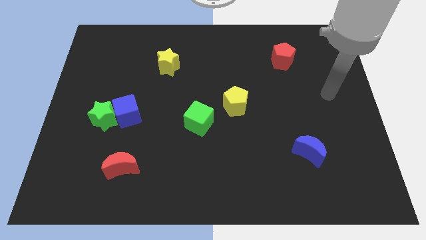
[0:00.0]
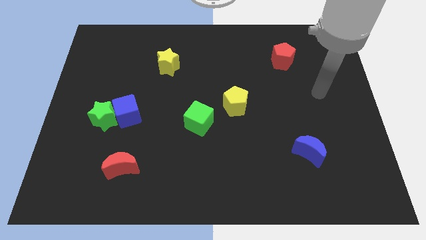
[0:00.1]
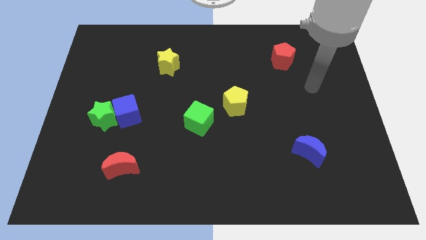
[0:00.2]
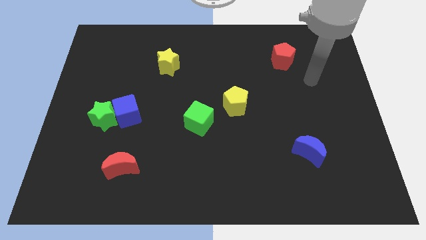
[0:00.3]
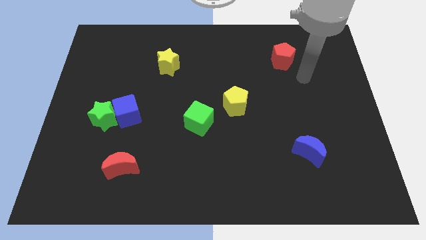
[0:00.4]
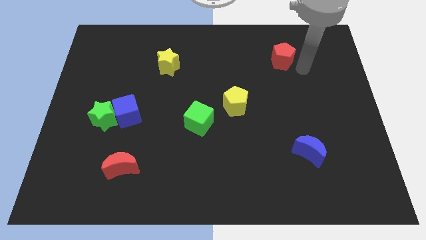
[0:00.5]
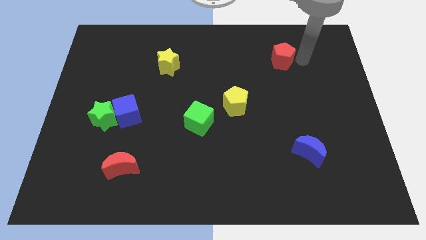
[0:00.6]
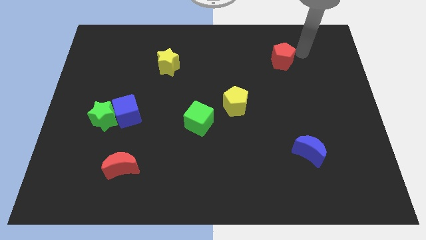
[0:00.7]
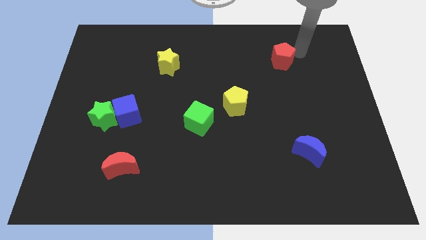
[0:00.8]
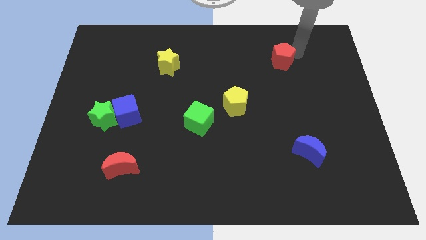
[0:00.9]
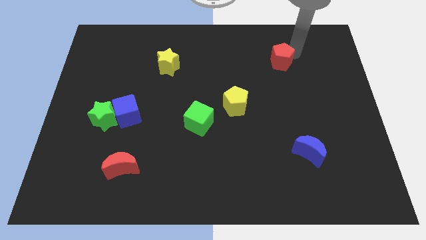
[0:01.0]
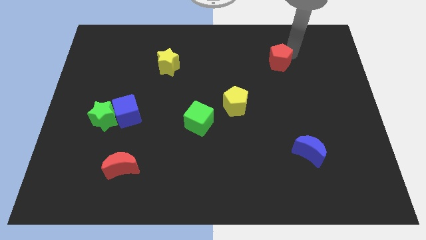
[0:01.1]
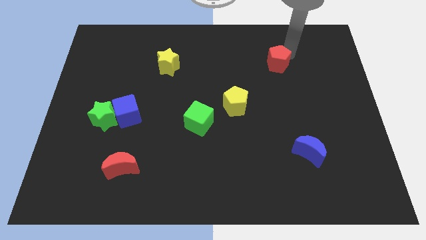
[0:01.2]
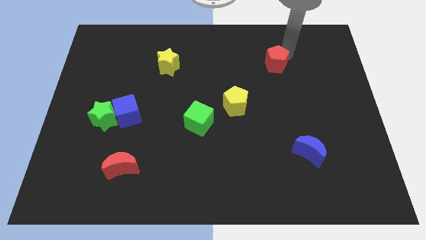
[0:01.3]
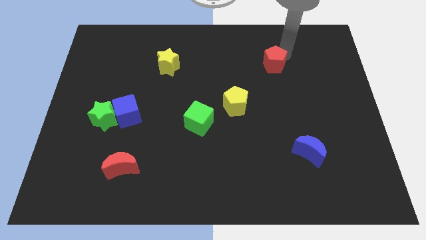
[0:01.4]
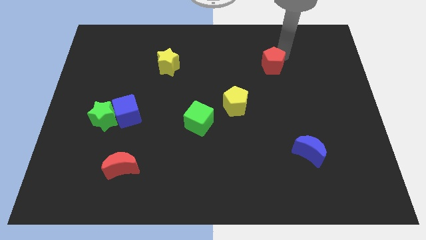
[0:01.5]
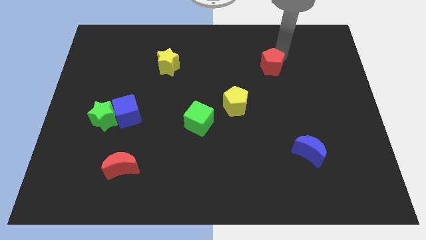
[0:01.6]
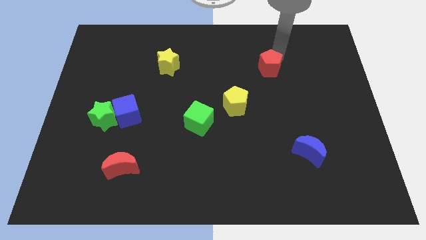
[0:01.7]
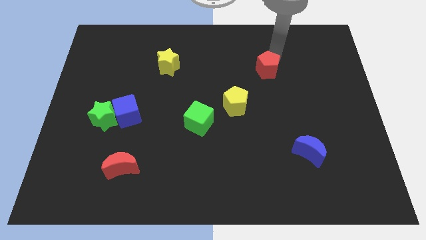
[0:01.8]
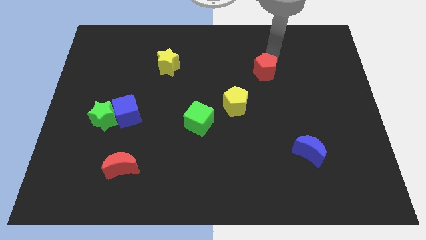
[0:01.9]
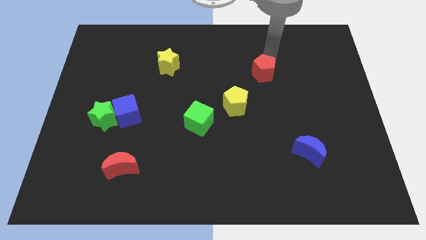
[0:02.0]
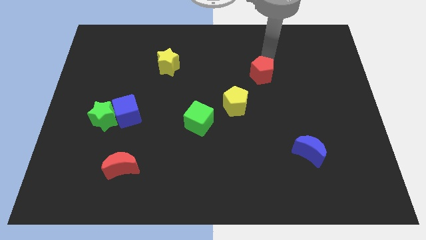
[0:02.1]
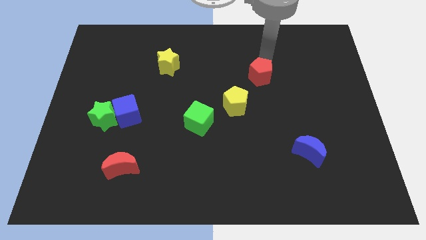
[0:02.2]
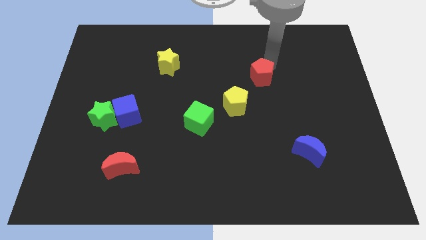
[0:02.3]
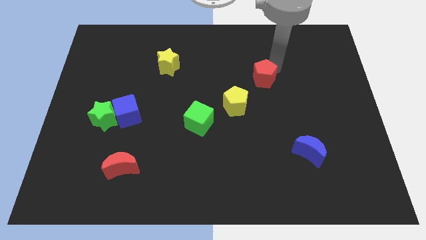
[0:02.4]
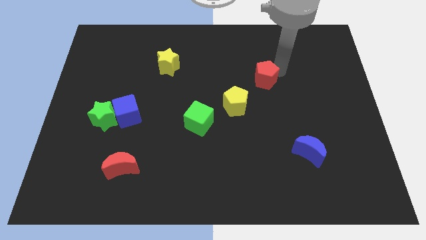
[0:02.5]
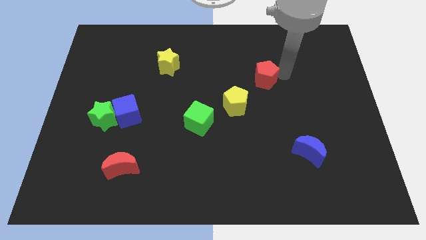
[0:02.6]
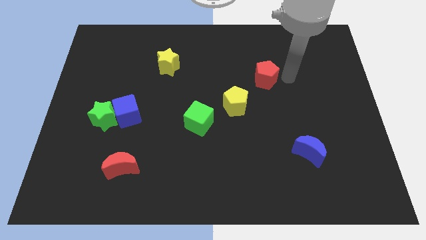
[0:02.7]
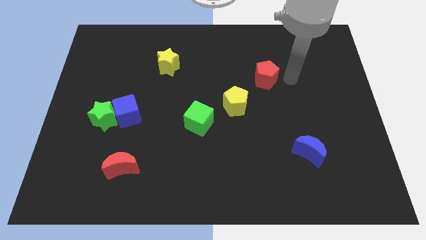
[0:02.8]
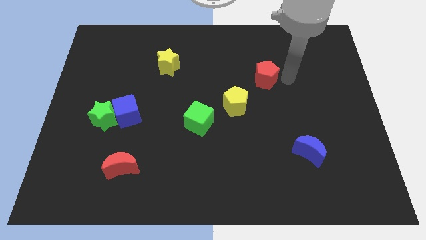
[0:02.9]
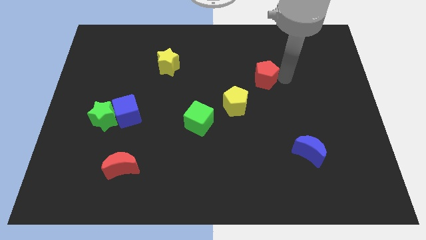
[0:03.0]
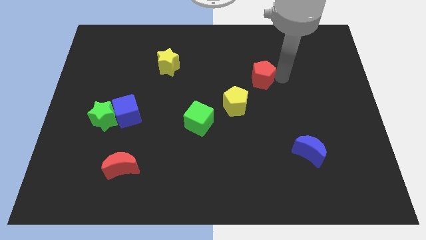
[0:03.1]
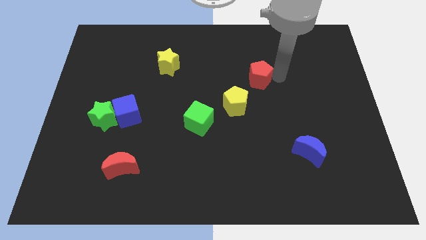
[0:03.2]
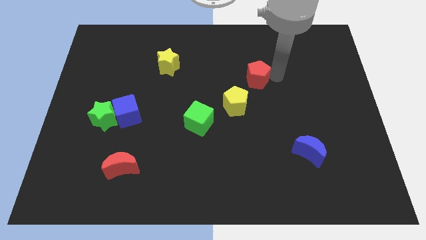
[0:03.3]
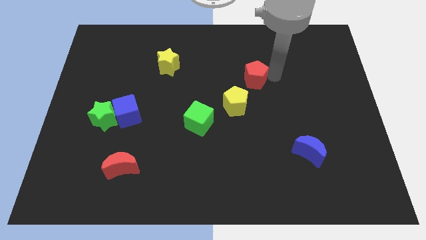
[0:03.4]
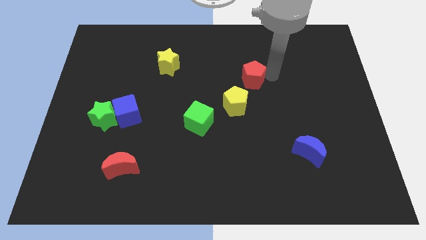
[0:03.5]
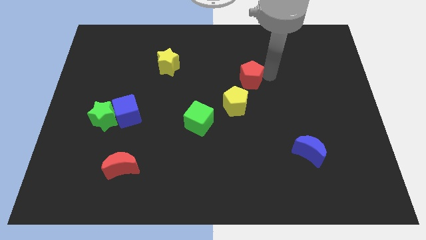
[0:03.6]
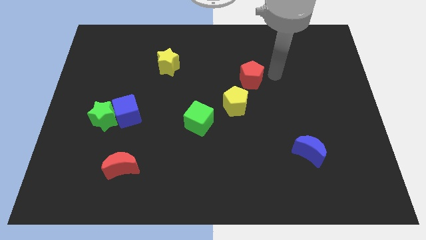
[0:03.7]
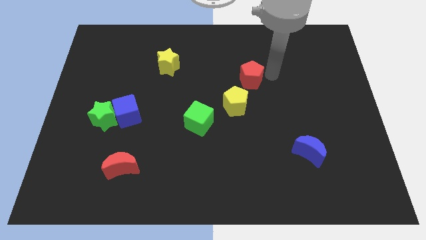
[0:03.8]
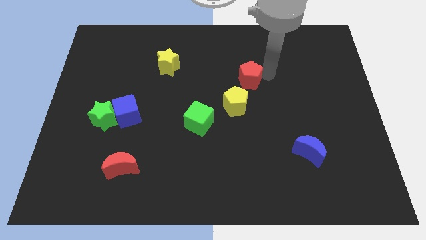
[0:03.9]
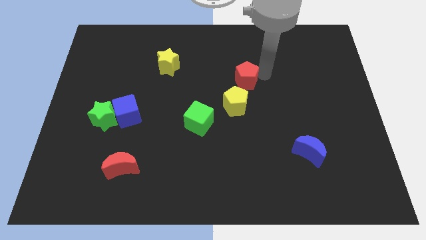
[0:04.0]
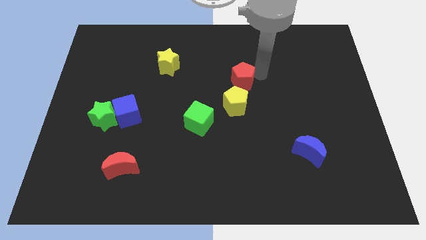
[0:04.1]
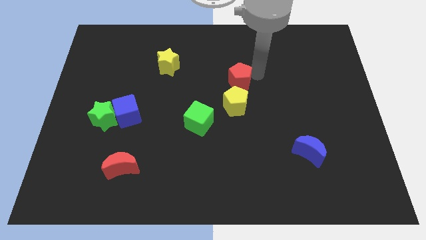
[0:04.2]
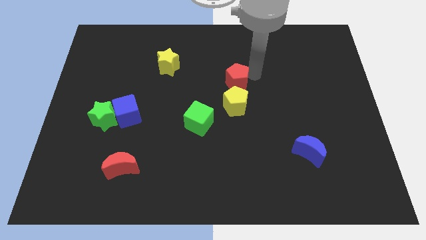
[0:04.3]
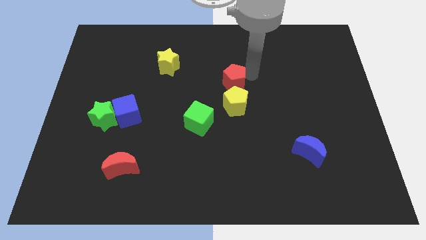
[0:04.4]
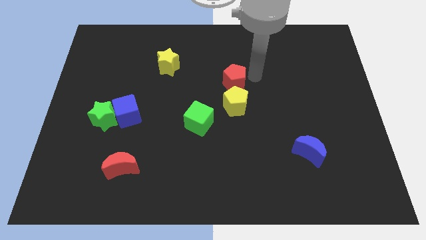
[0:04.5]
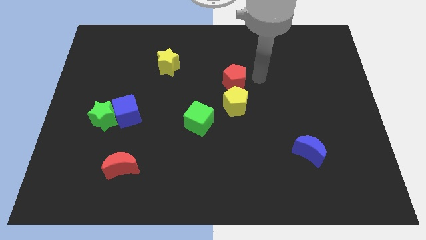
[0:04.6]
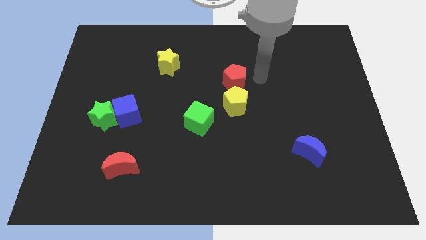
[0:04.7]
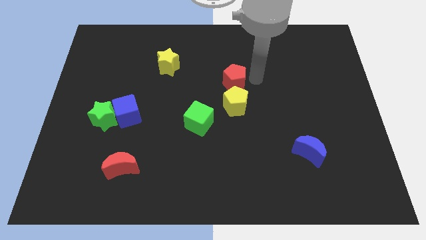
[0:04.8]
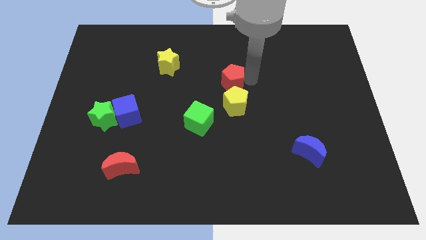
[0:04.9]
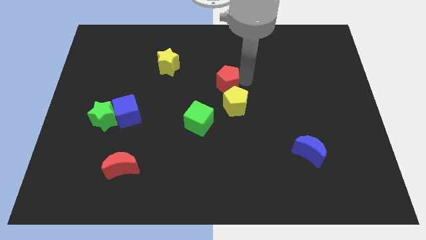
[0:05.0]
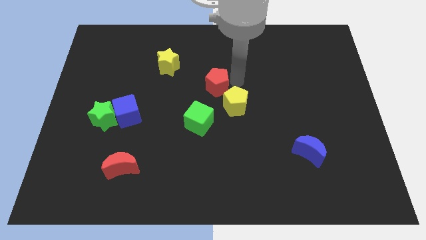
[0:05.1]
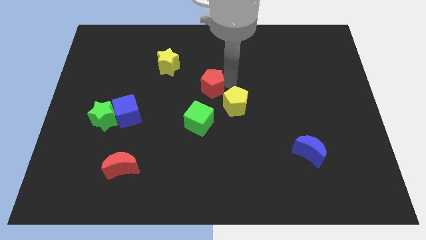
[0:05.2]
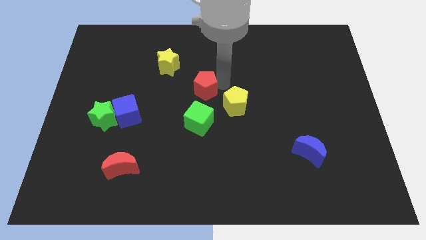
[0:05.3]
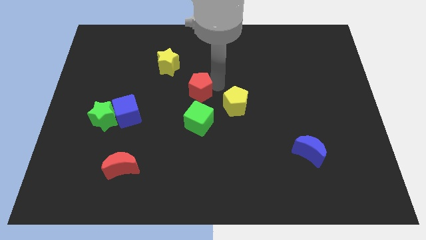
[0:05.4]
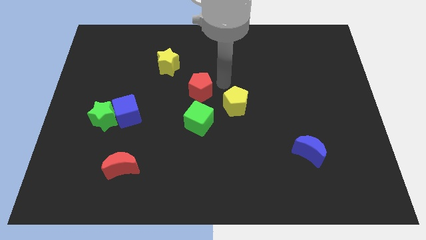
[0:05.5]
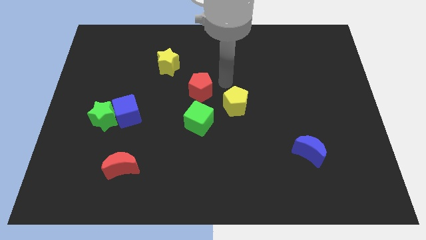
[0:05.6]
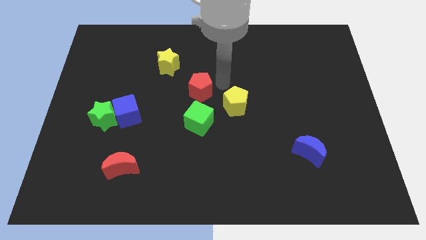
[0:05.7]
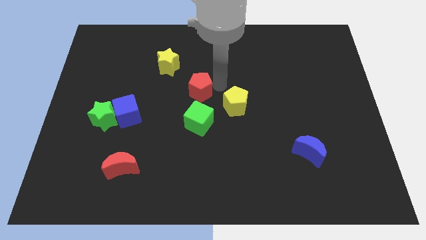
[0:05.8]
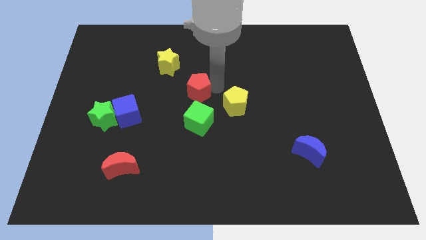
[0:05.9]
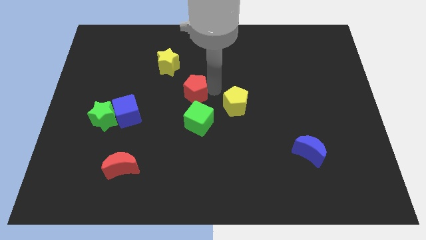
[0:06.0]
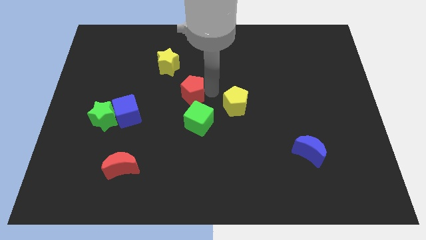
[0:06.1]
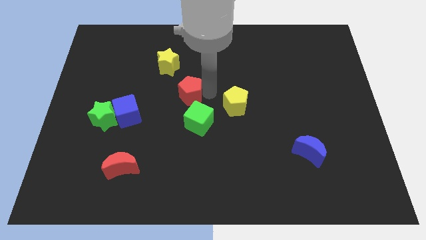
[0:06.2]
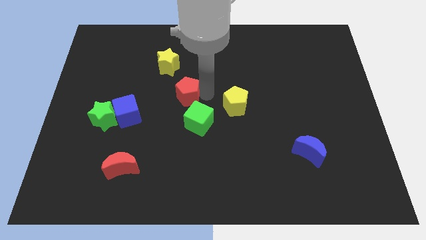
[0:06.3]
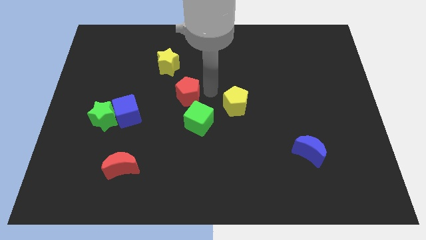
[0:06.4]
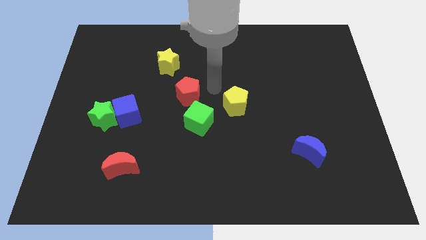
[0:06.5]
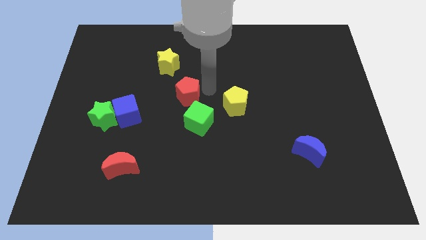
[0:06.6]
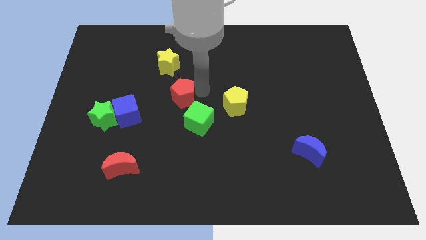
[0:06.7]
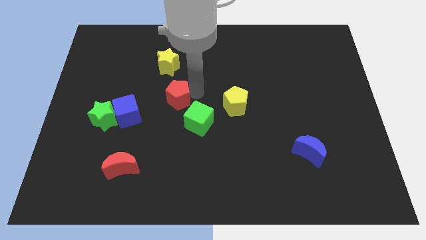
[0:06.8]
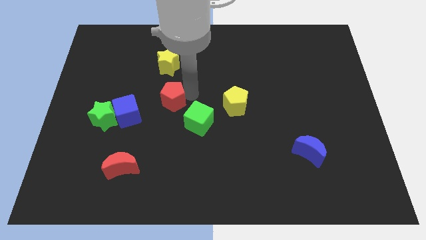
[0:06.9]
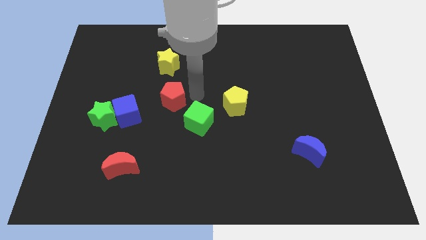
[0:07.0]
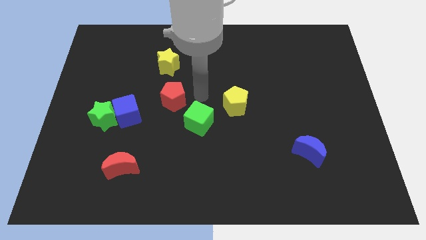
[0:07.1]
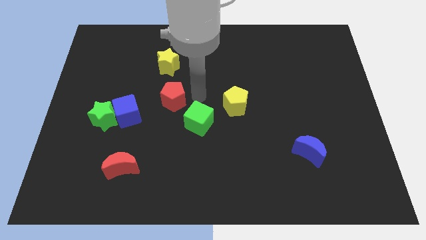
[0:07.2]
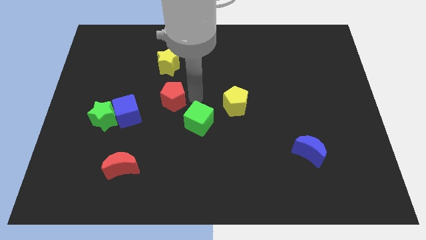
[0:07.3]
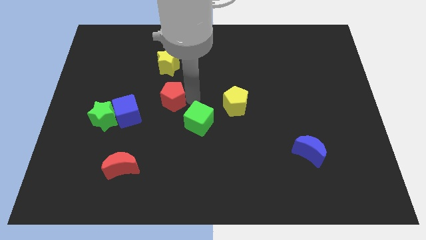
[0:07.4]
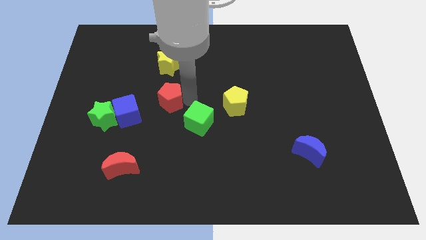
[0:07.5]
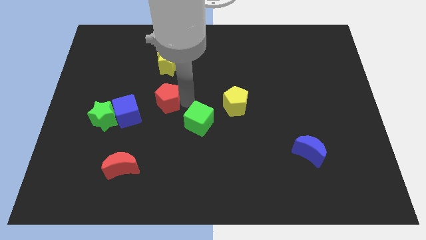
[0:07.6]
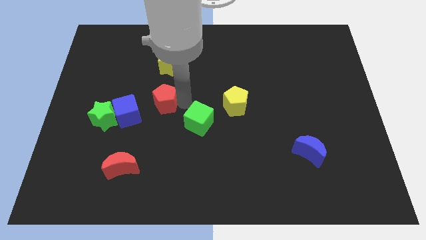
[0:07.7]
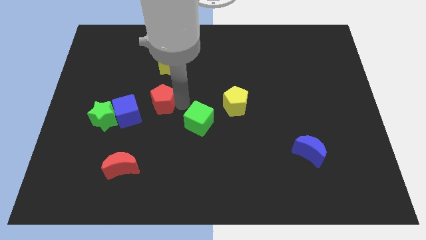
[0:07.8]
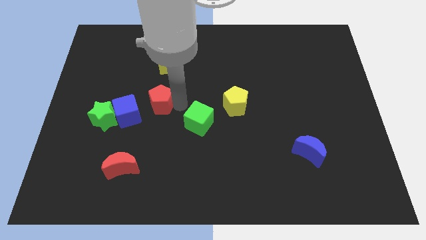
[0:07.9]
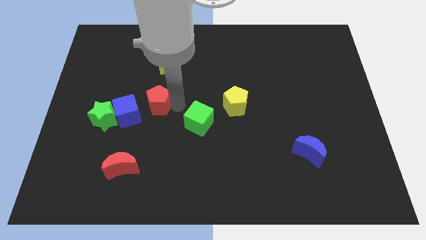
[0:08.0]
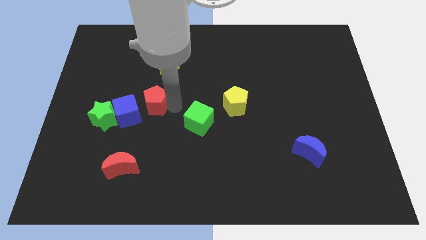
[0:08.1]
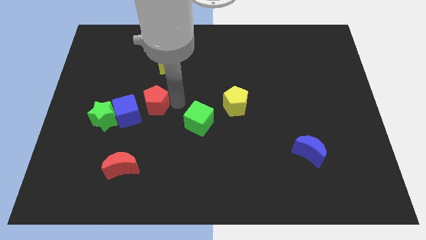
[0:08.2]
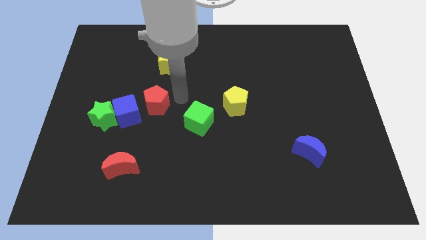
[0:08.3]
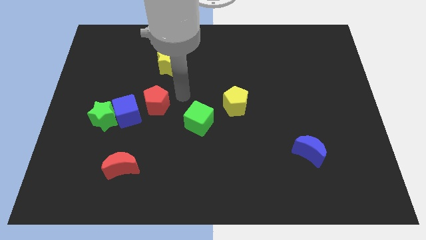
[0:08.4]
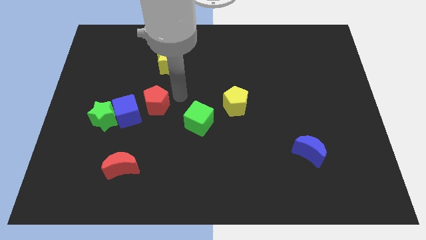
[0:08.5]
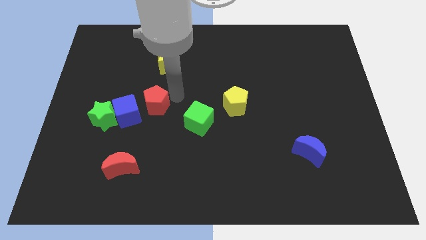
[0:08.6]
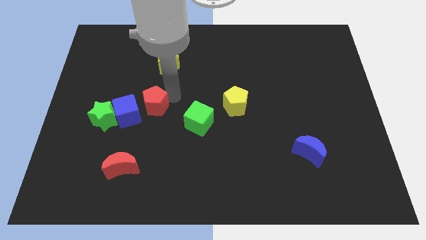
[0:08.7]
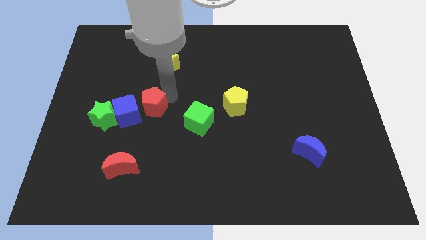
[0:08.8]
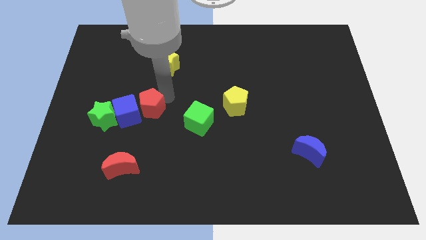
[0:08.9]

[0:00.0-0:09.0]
push the red pentagon close to the blue cube
